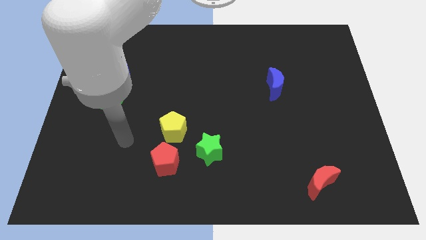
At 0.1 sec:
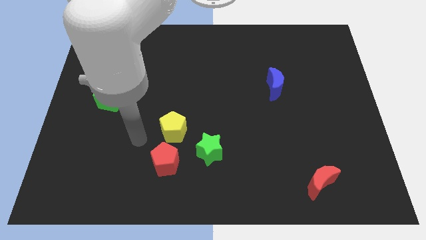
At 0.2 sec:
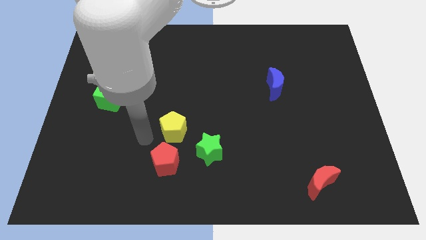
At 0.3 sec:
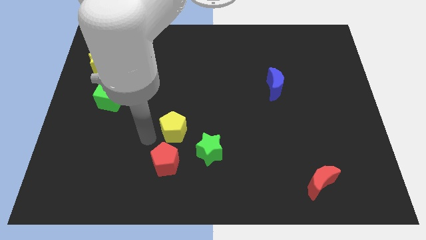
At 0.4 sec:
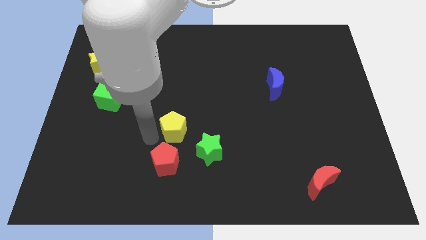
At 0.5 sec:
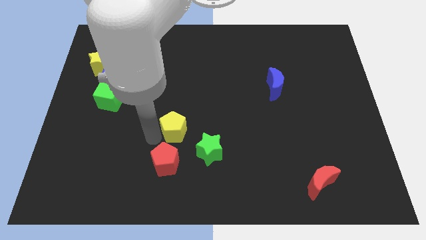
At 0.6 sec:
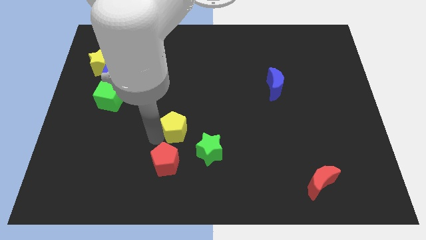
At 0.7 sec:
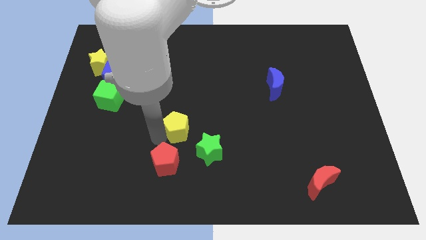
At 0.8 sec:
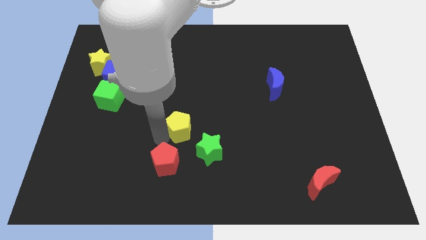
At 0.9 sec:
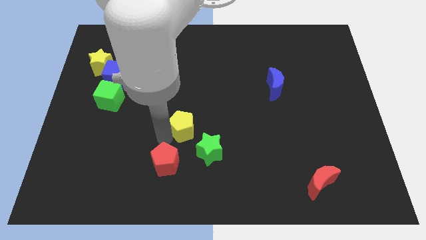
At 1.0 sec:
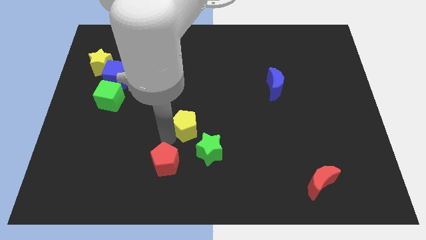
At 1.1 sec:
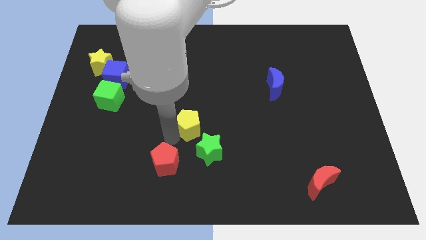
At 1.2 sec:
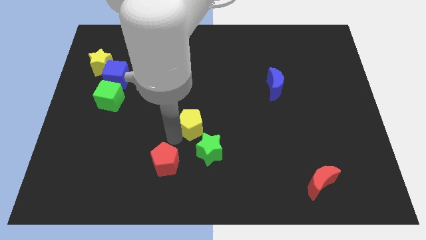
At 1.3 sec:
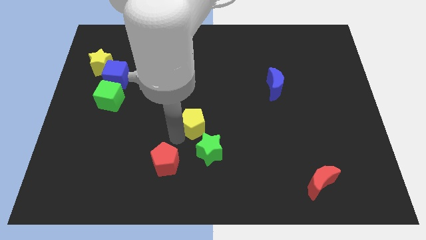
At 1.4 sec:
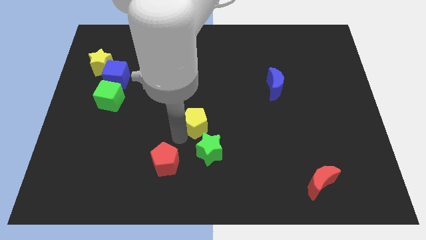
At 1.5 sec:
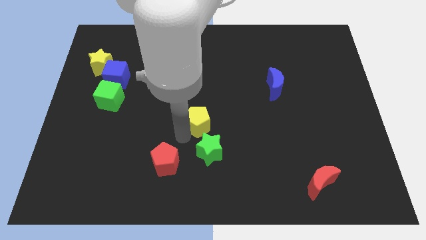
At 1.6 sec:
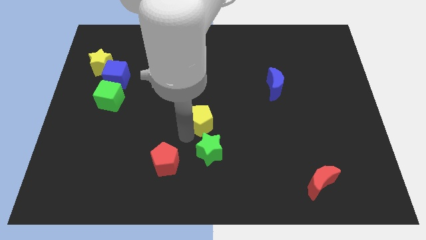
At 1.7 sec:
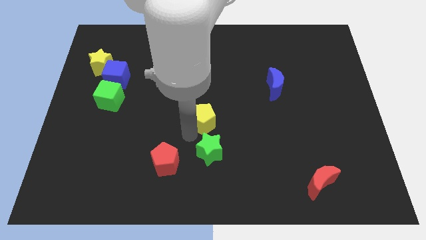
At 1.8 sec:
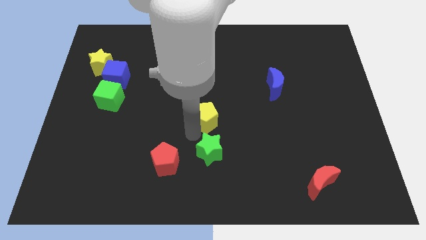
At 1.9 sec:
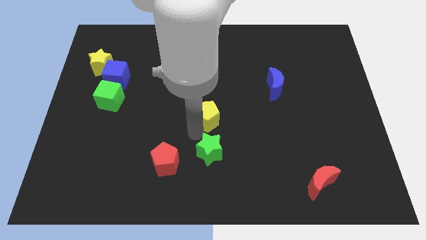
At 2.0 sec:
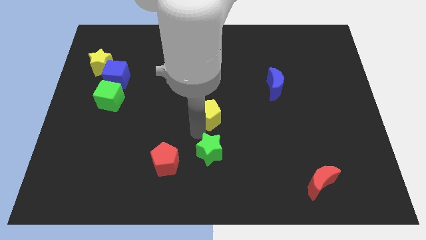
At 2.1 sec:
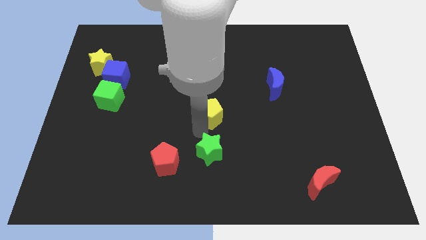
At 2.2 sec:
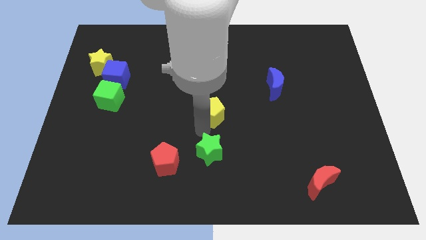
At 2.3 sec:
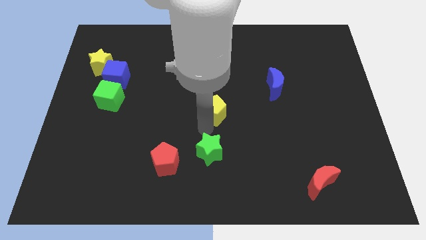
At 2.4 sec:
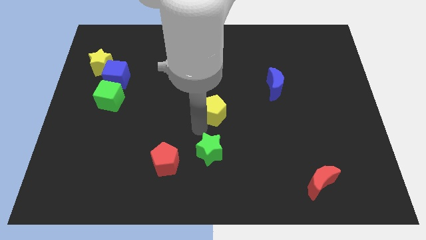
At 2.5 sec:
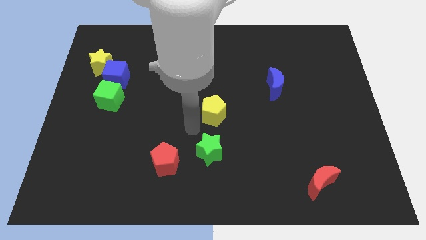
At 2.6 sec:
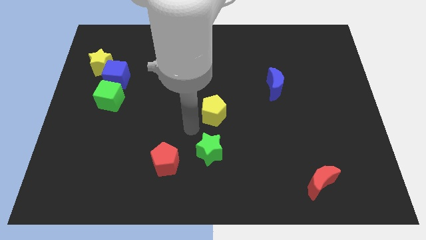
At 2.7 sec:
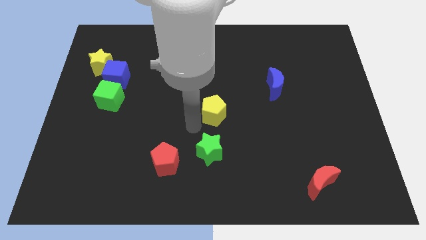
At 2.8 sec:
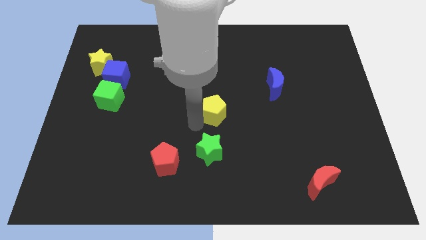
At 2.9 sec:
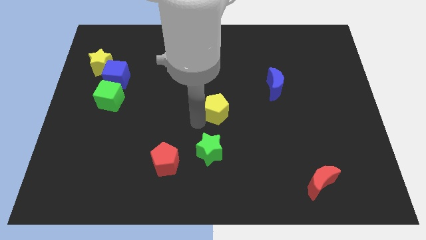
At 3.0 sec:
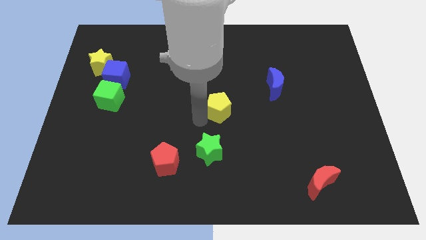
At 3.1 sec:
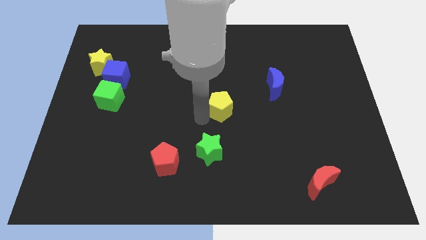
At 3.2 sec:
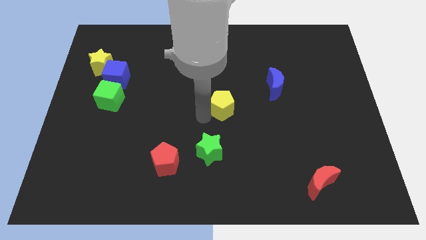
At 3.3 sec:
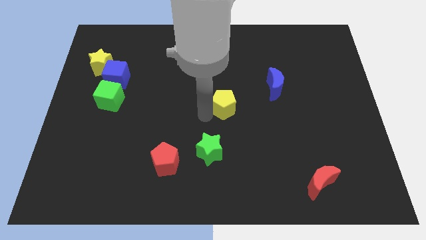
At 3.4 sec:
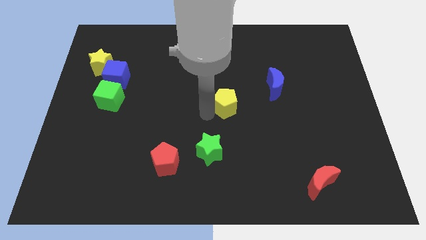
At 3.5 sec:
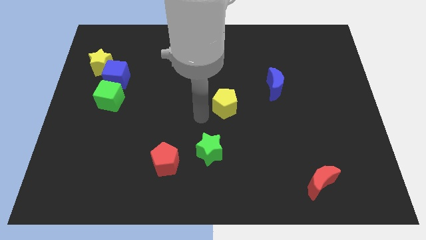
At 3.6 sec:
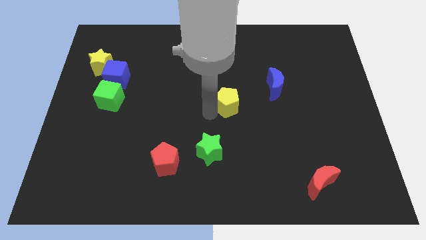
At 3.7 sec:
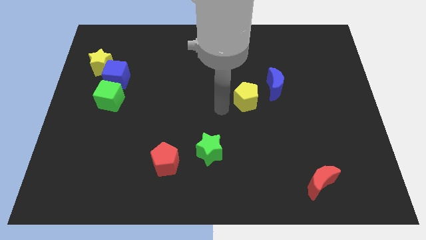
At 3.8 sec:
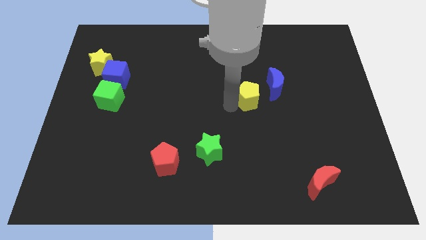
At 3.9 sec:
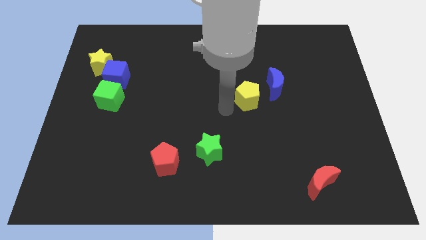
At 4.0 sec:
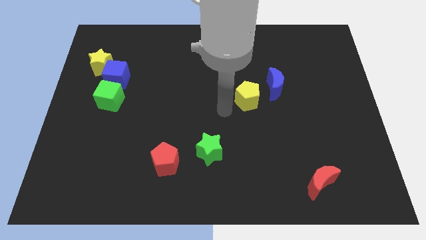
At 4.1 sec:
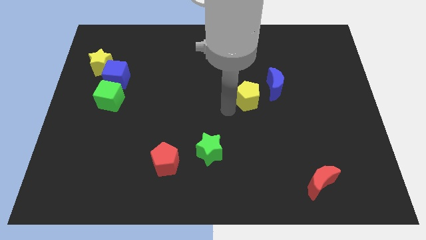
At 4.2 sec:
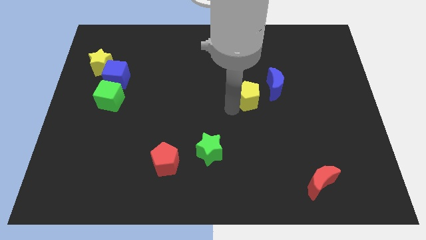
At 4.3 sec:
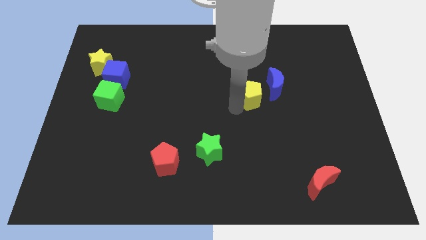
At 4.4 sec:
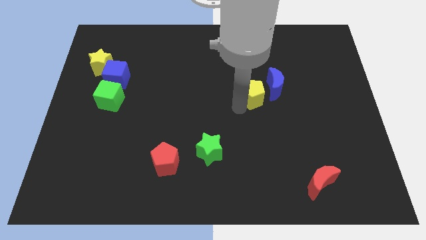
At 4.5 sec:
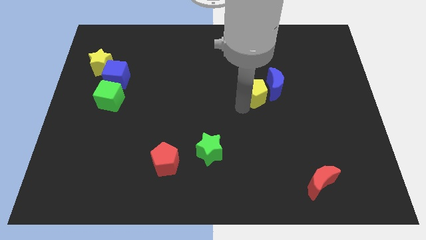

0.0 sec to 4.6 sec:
push the yellow pentagon to the blue moon

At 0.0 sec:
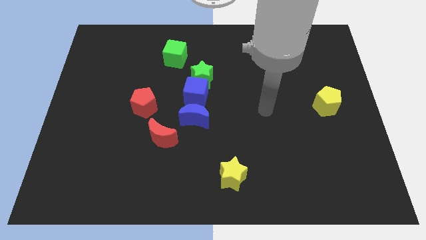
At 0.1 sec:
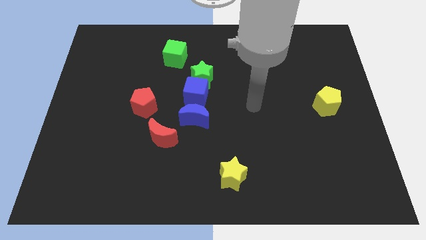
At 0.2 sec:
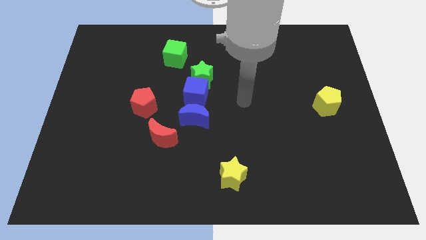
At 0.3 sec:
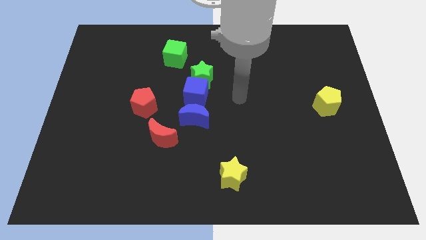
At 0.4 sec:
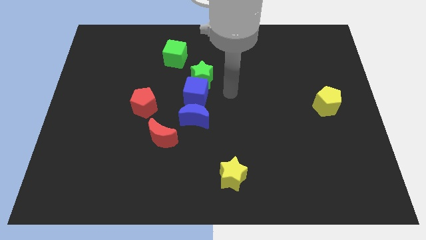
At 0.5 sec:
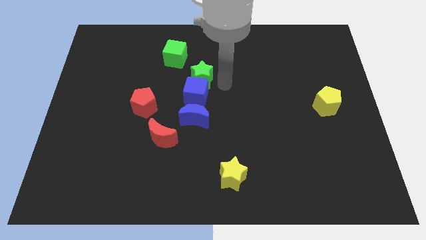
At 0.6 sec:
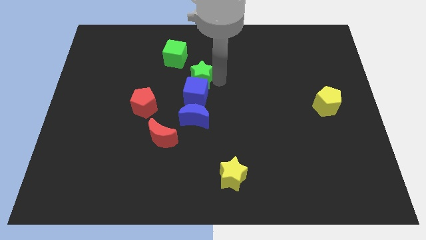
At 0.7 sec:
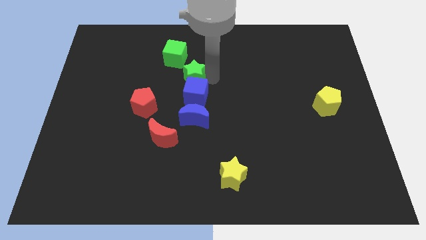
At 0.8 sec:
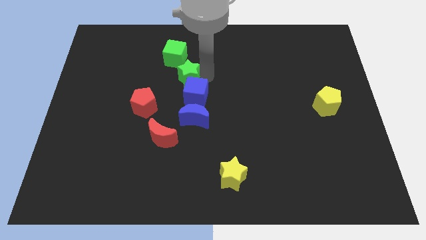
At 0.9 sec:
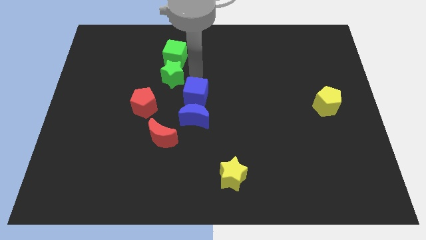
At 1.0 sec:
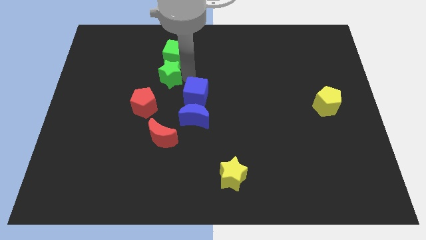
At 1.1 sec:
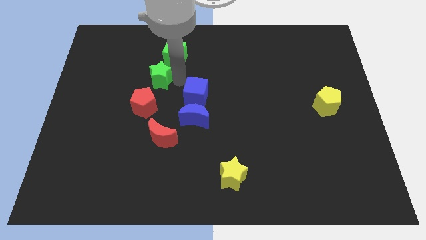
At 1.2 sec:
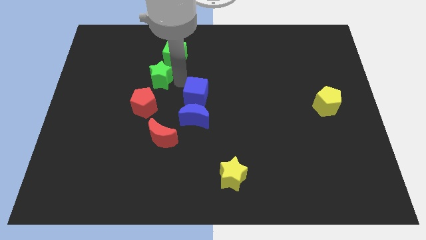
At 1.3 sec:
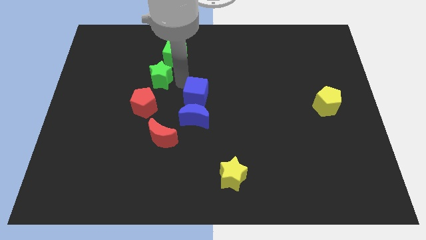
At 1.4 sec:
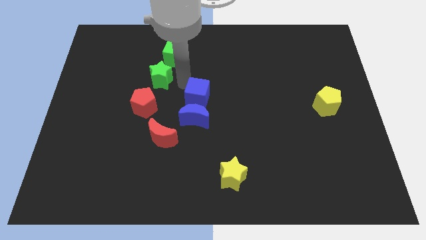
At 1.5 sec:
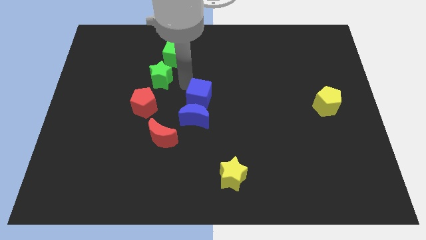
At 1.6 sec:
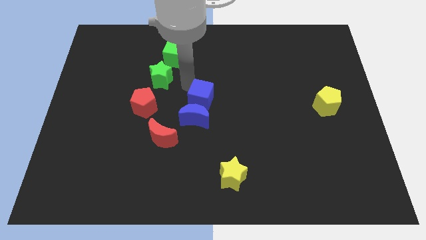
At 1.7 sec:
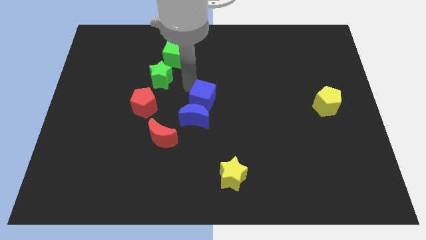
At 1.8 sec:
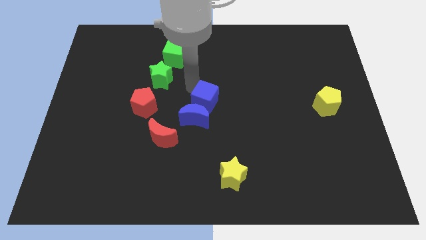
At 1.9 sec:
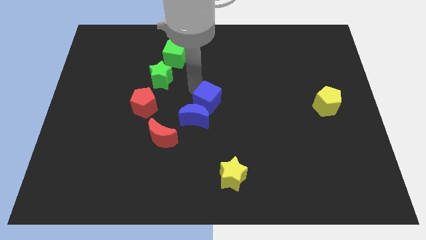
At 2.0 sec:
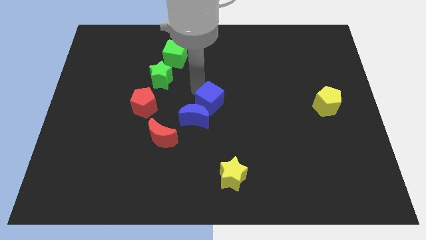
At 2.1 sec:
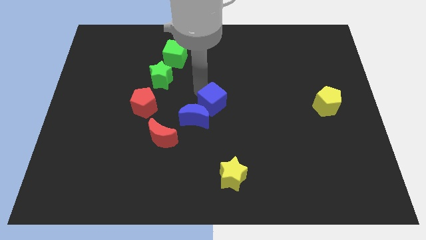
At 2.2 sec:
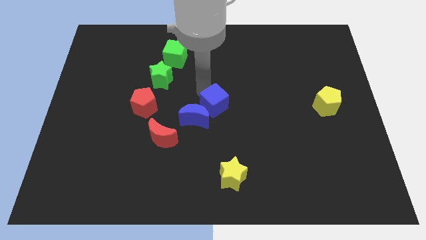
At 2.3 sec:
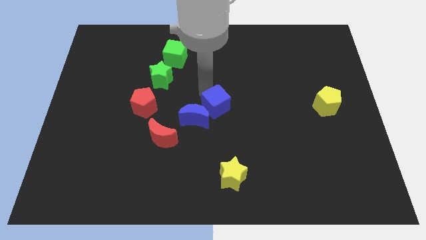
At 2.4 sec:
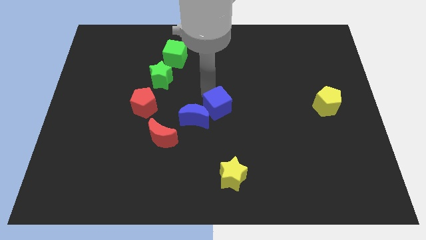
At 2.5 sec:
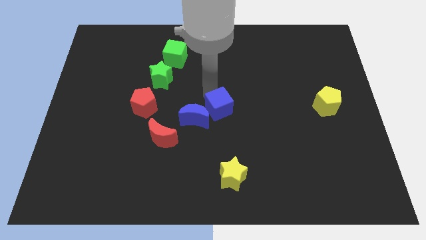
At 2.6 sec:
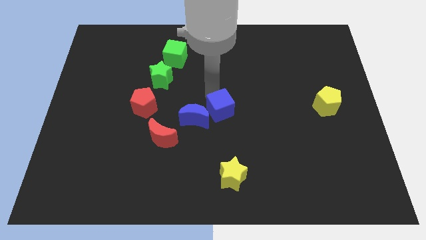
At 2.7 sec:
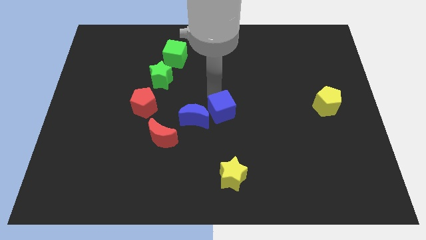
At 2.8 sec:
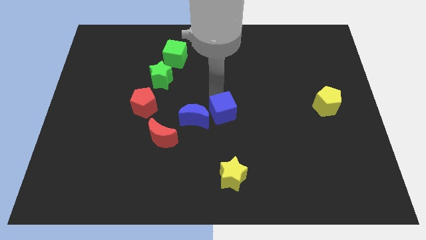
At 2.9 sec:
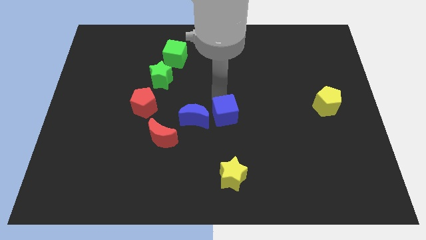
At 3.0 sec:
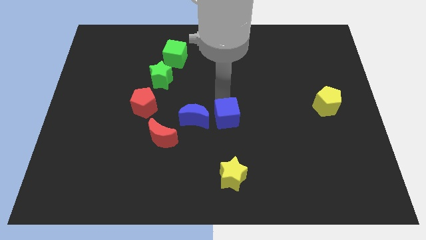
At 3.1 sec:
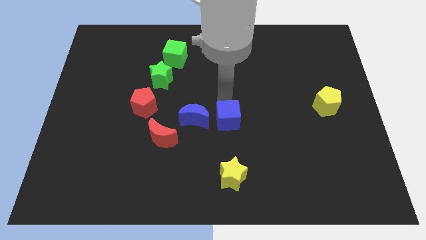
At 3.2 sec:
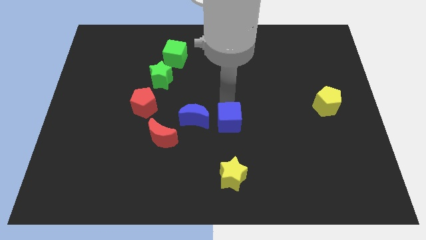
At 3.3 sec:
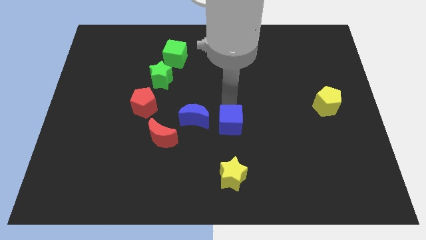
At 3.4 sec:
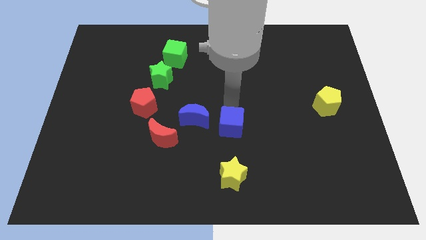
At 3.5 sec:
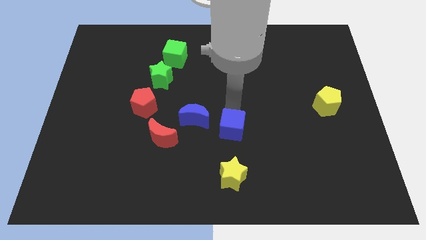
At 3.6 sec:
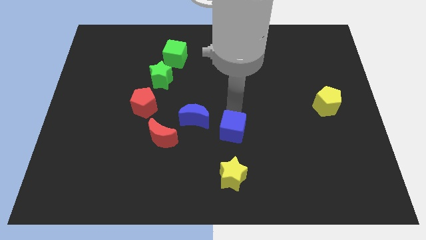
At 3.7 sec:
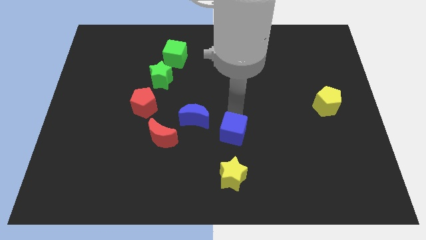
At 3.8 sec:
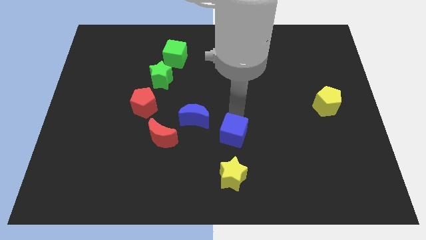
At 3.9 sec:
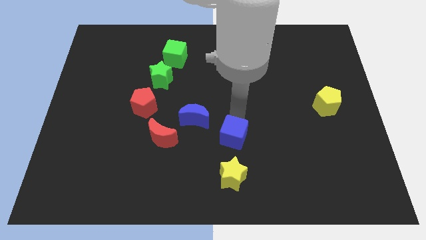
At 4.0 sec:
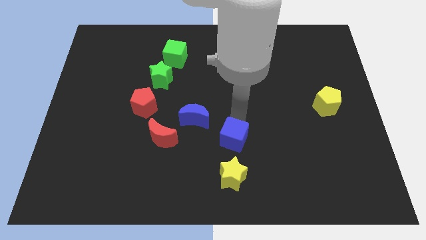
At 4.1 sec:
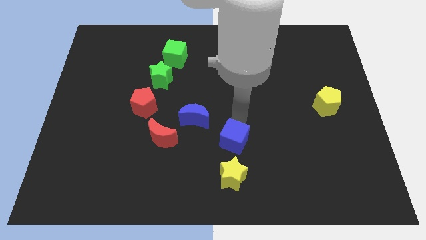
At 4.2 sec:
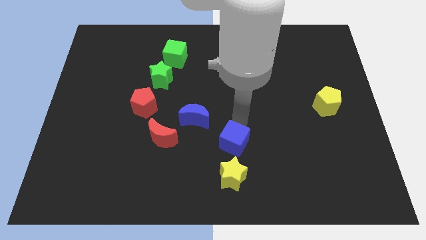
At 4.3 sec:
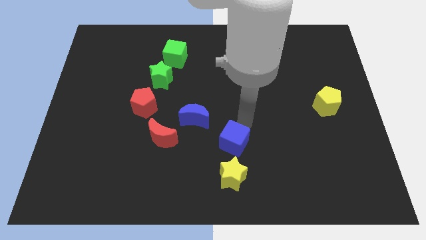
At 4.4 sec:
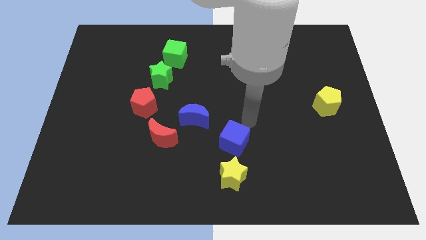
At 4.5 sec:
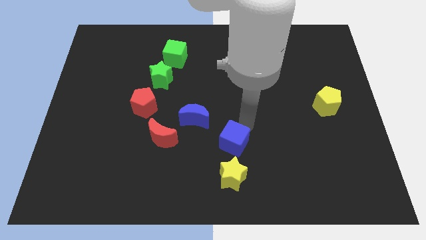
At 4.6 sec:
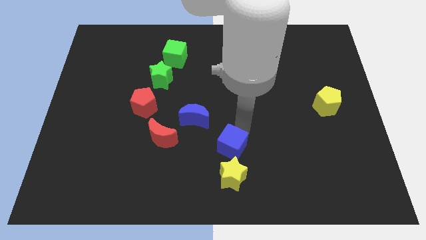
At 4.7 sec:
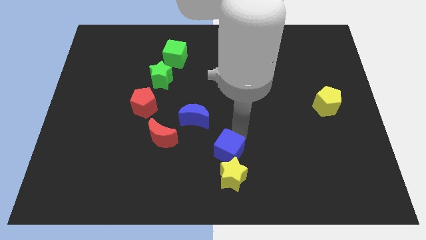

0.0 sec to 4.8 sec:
put the blue cube next to the yellow star
